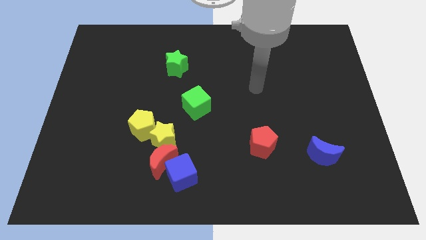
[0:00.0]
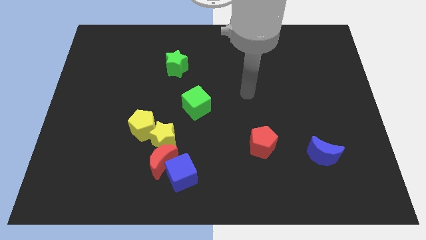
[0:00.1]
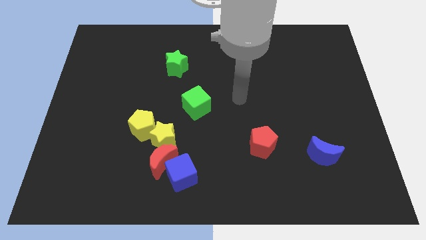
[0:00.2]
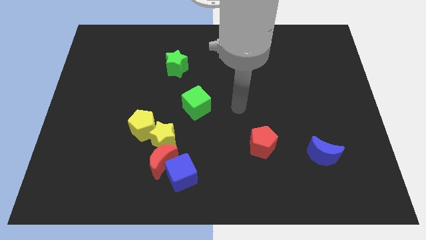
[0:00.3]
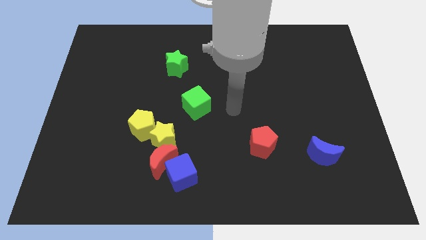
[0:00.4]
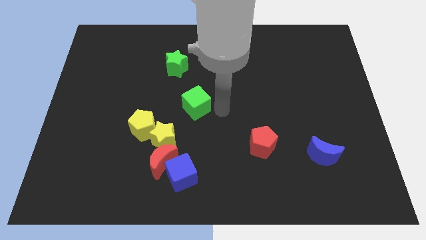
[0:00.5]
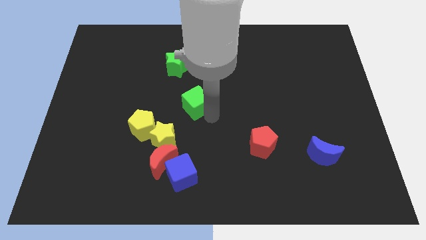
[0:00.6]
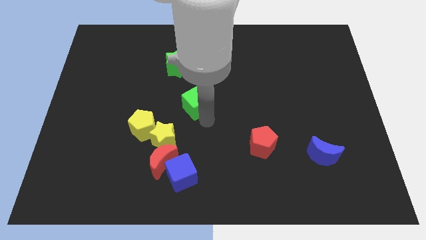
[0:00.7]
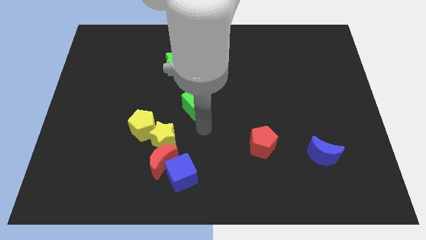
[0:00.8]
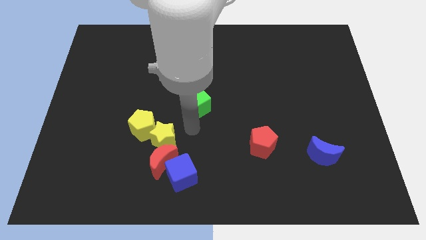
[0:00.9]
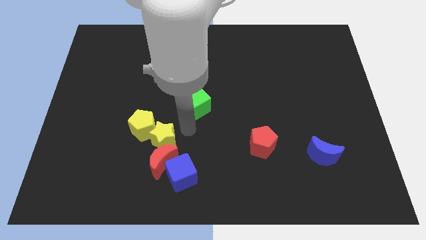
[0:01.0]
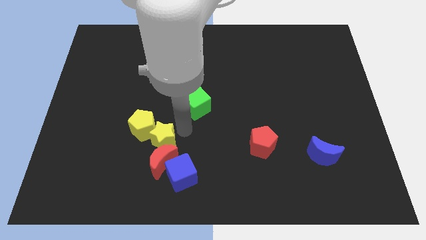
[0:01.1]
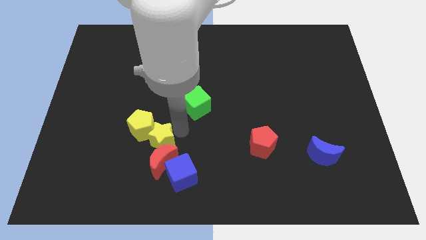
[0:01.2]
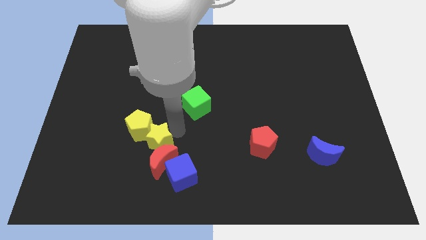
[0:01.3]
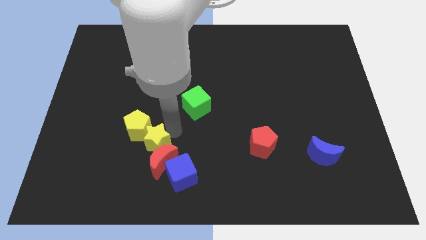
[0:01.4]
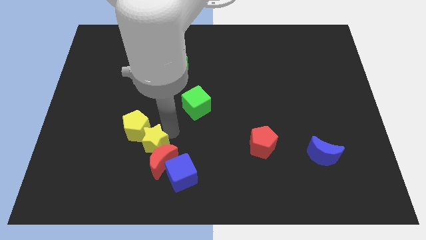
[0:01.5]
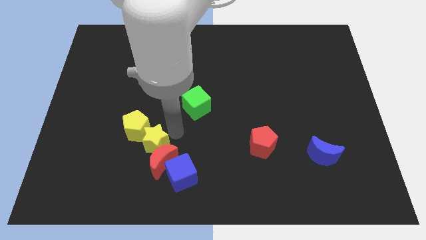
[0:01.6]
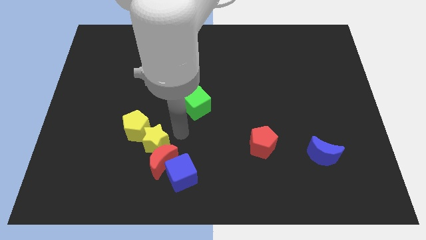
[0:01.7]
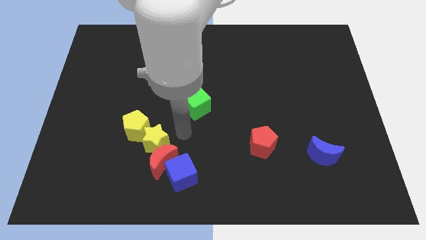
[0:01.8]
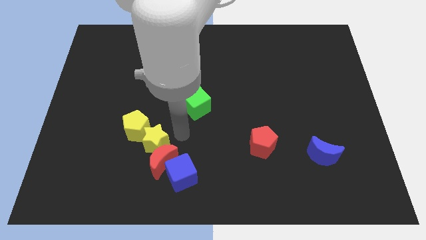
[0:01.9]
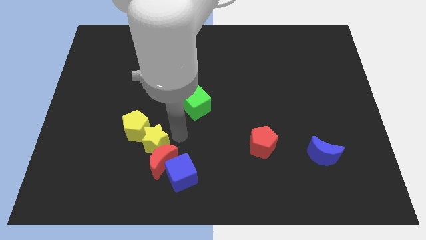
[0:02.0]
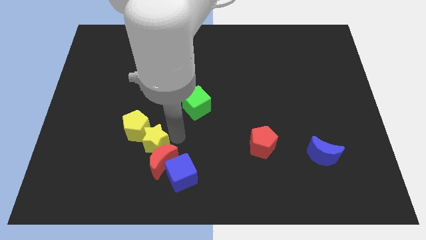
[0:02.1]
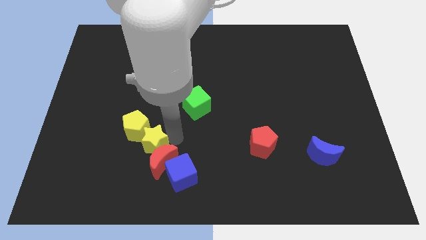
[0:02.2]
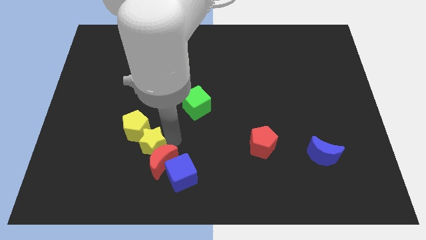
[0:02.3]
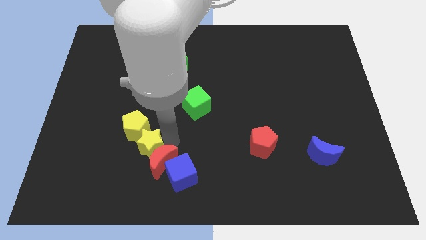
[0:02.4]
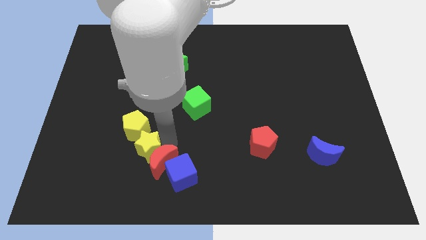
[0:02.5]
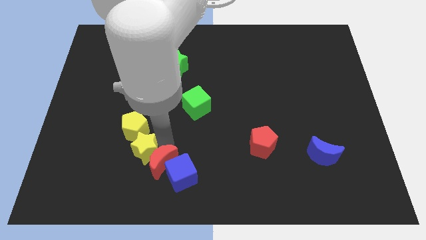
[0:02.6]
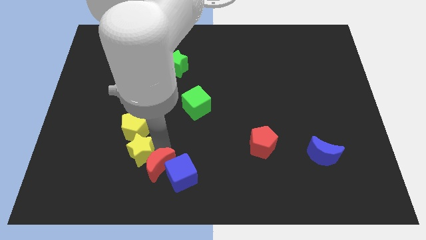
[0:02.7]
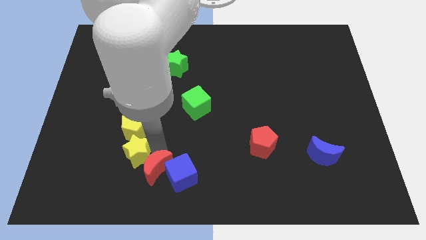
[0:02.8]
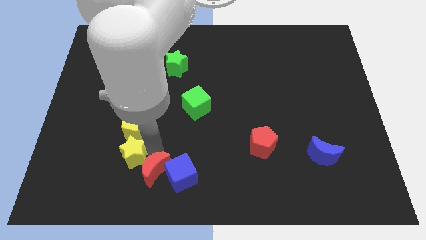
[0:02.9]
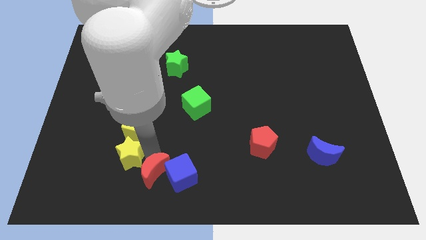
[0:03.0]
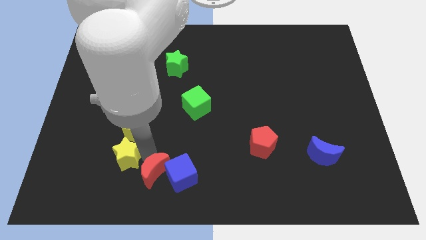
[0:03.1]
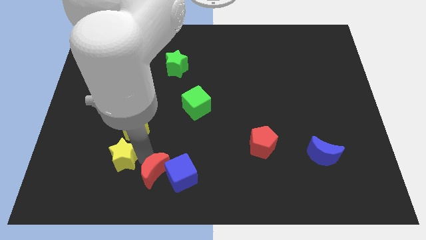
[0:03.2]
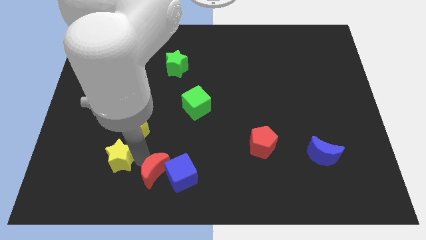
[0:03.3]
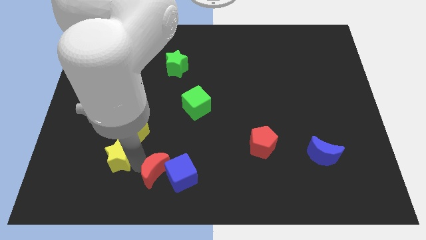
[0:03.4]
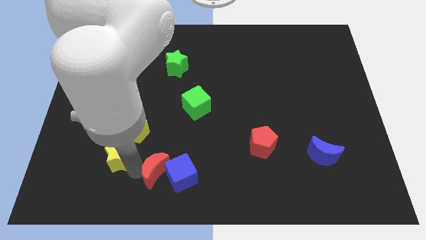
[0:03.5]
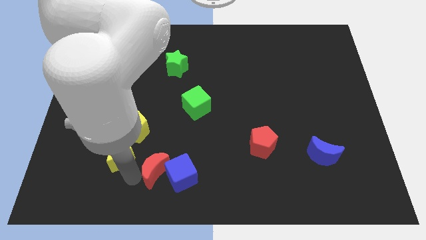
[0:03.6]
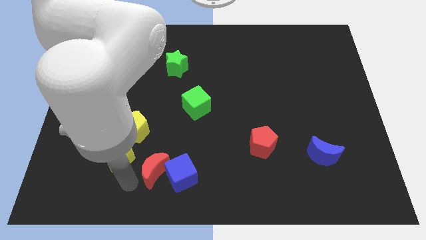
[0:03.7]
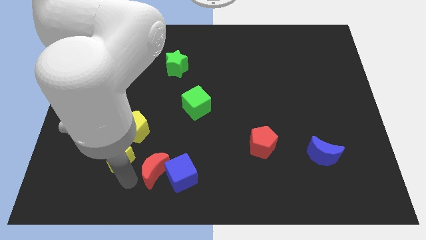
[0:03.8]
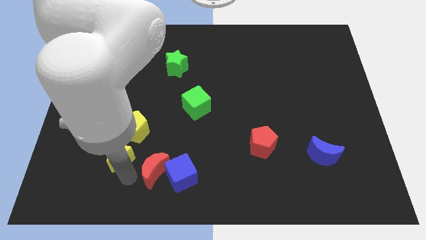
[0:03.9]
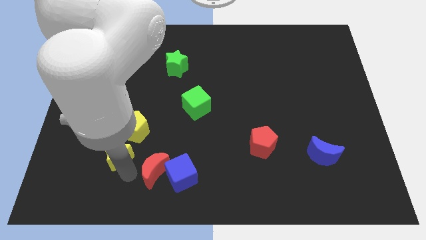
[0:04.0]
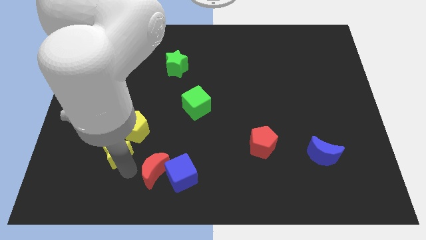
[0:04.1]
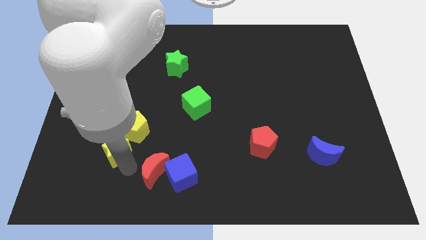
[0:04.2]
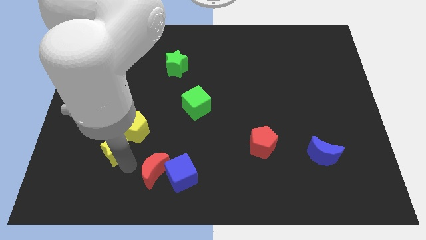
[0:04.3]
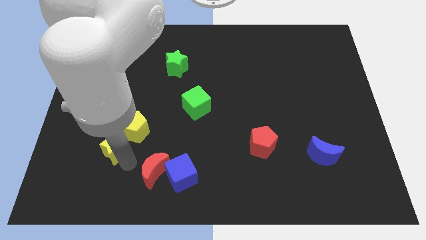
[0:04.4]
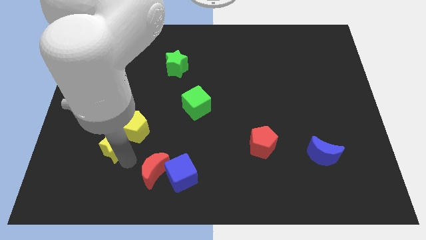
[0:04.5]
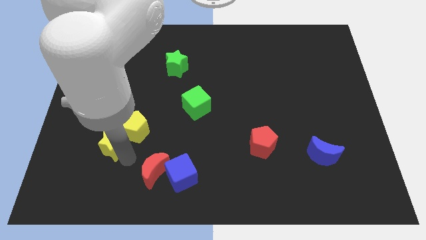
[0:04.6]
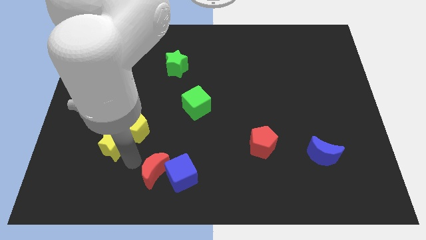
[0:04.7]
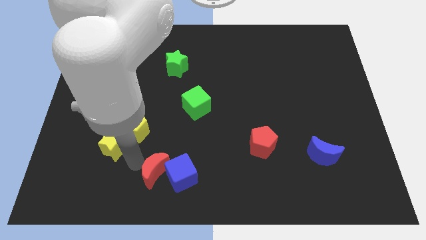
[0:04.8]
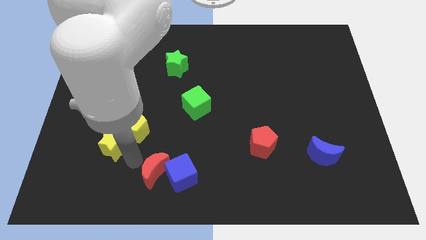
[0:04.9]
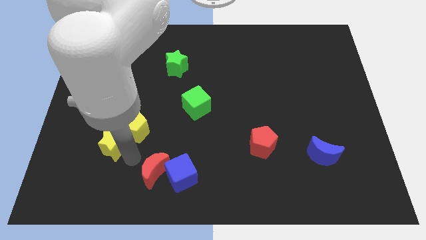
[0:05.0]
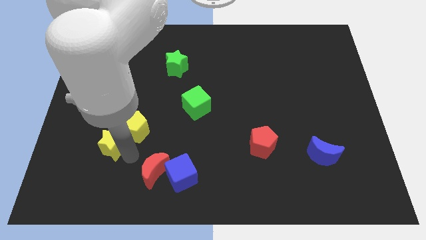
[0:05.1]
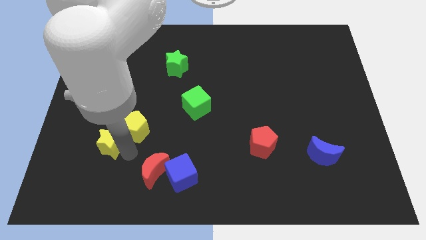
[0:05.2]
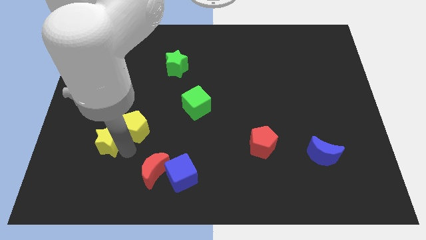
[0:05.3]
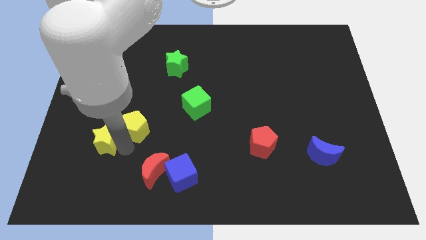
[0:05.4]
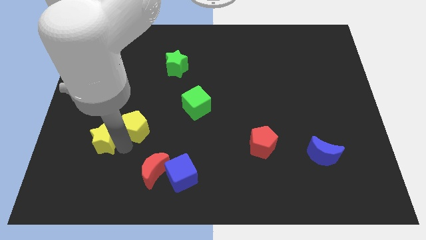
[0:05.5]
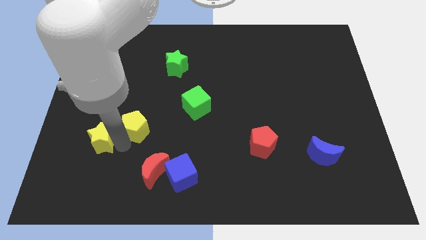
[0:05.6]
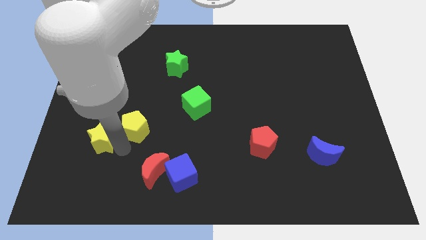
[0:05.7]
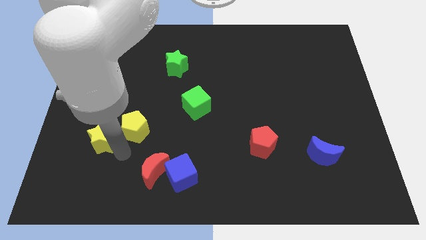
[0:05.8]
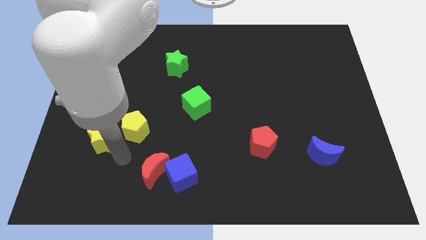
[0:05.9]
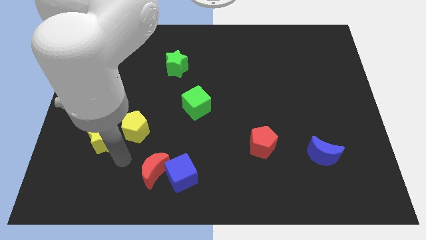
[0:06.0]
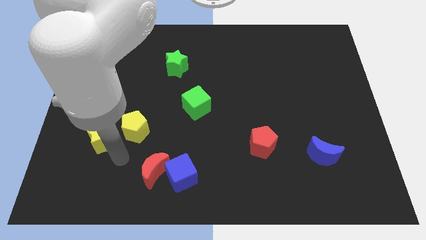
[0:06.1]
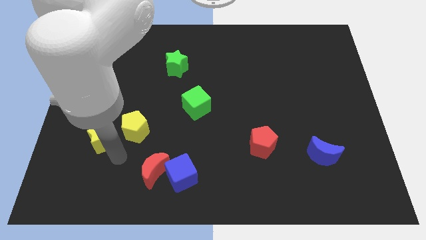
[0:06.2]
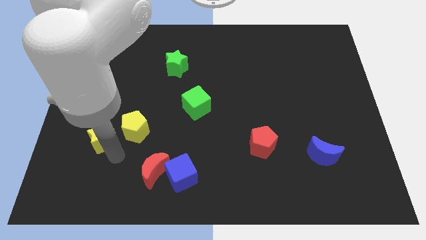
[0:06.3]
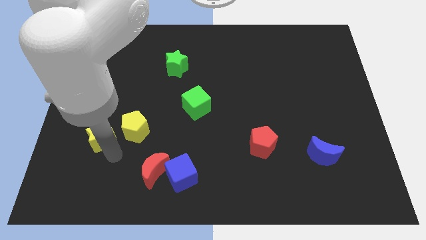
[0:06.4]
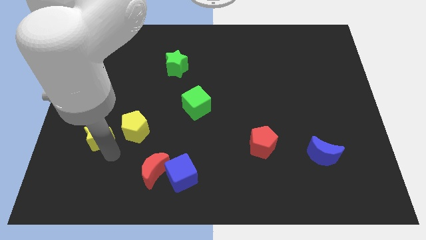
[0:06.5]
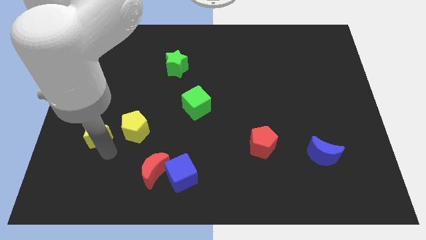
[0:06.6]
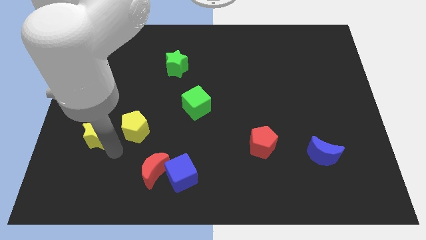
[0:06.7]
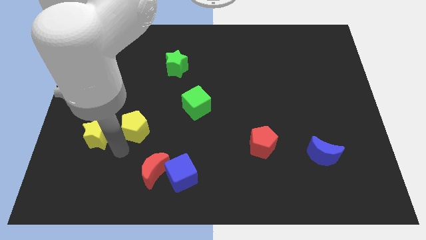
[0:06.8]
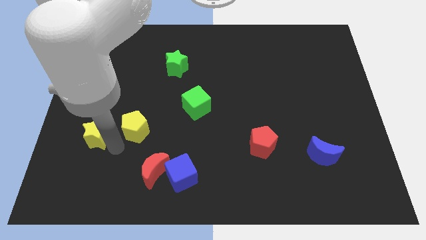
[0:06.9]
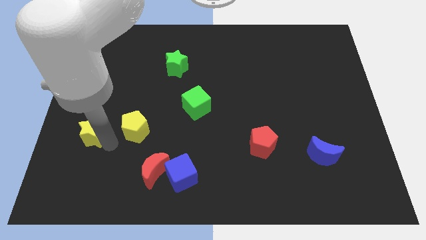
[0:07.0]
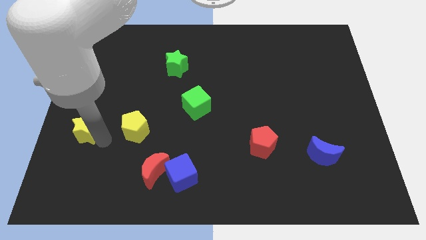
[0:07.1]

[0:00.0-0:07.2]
slide the yellow star to the left side of the board
